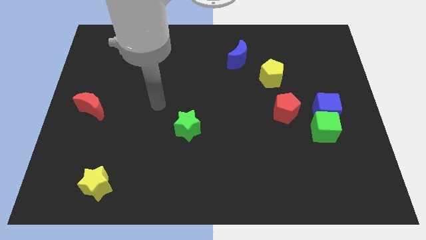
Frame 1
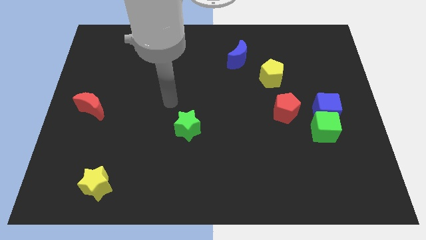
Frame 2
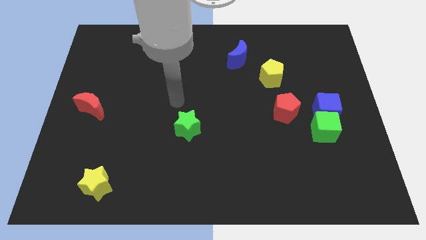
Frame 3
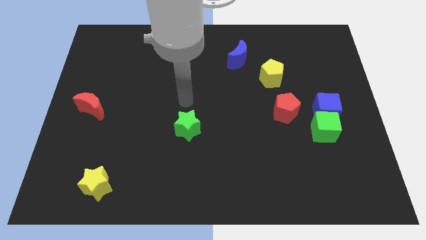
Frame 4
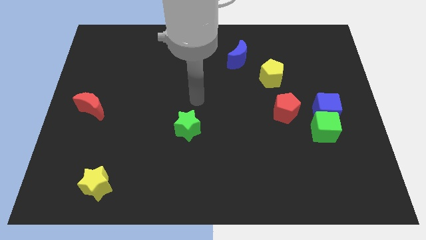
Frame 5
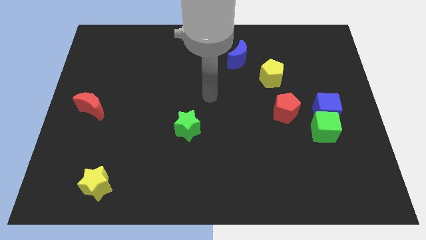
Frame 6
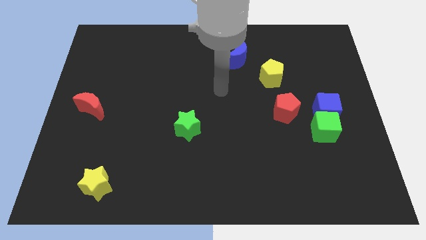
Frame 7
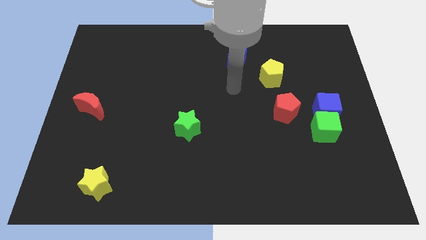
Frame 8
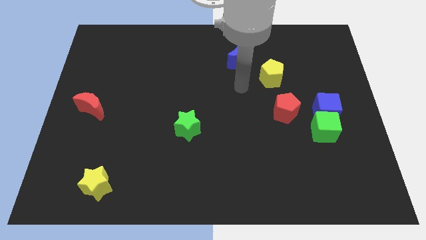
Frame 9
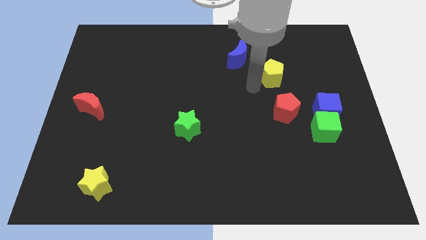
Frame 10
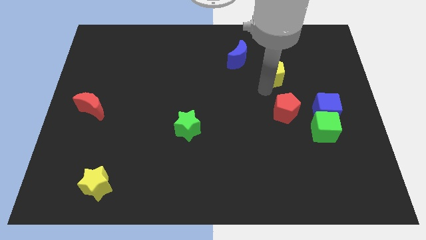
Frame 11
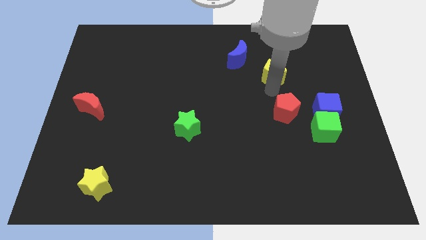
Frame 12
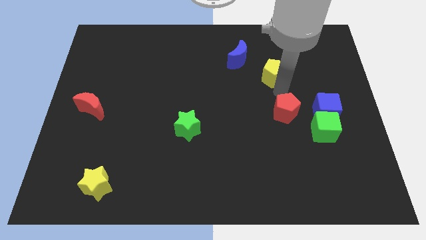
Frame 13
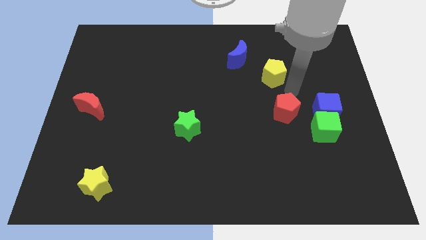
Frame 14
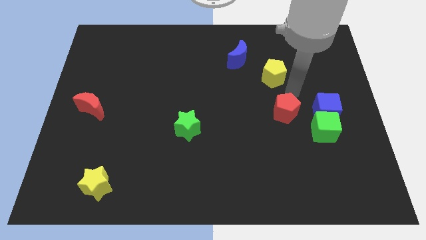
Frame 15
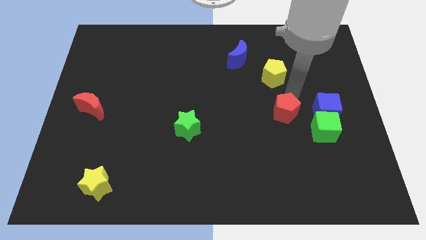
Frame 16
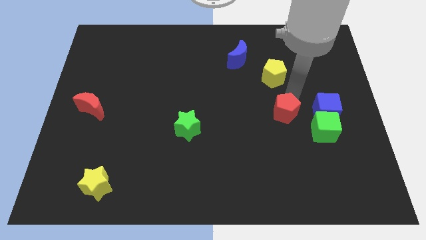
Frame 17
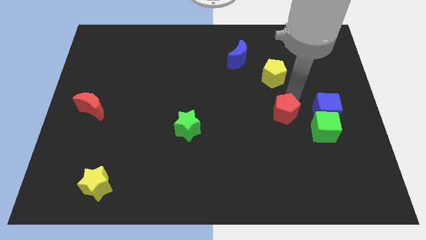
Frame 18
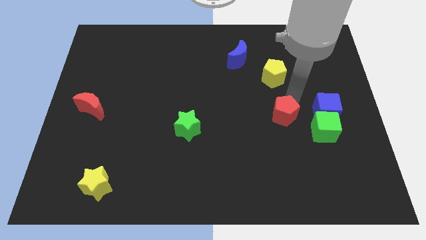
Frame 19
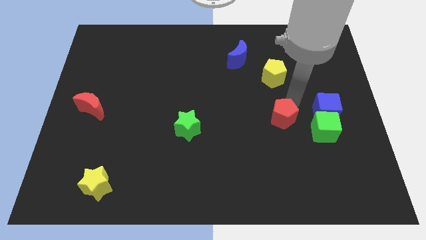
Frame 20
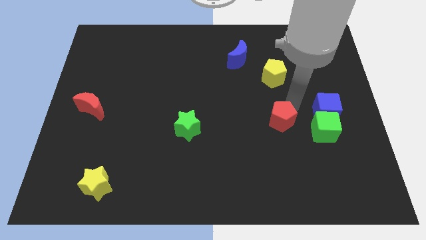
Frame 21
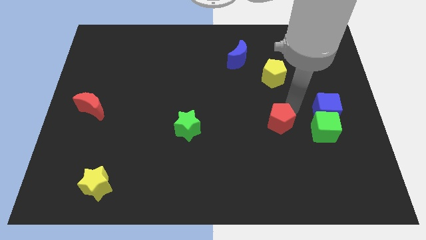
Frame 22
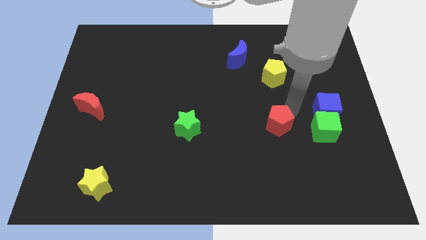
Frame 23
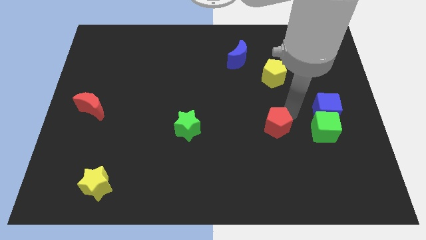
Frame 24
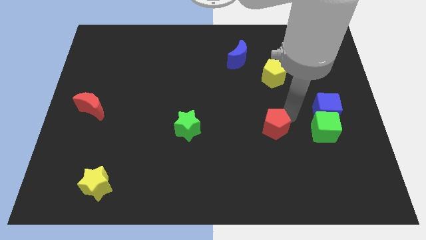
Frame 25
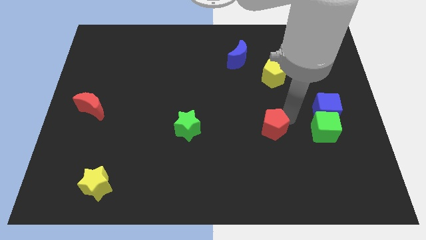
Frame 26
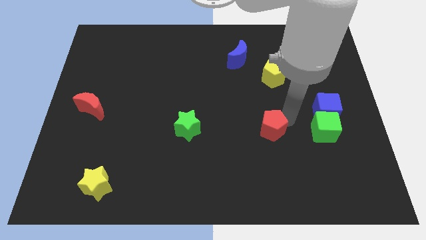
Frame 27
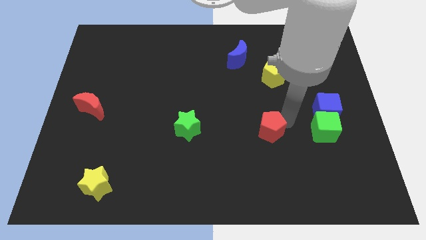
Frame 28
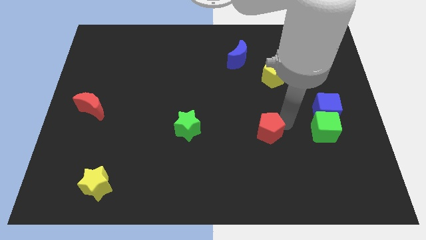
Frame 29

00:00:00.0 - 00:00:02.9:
push the red pentagon a bit downwards and then to the left

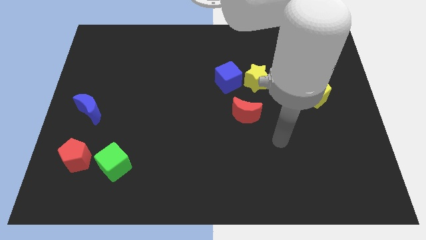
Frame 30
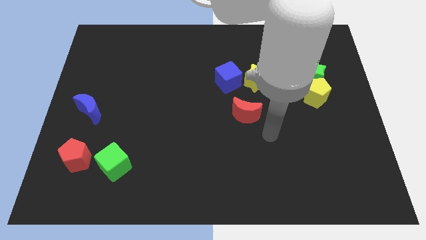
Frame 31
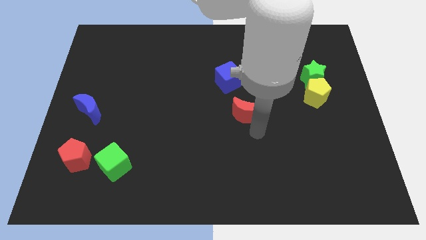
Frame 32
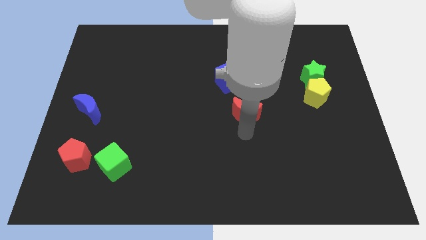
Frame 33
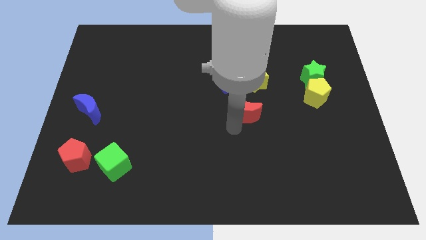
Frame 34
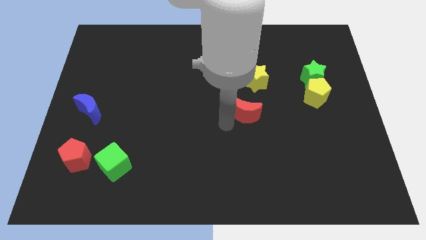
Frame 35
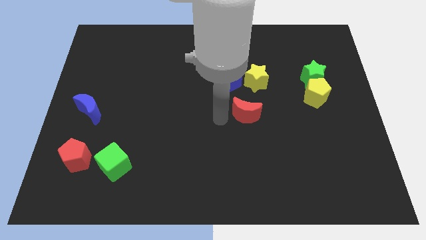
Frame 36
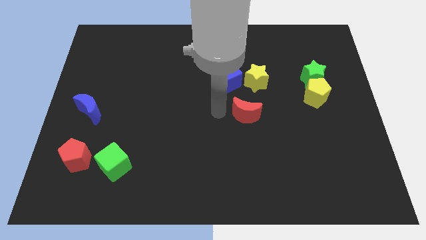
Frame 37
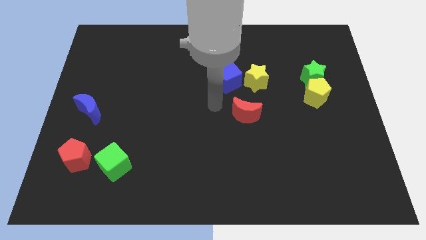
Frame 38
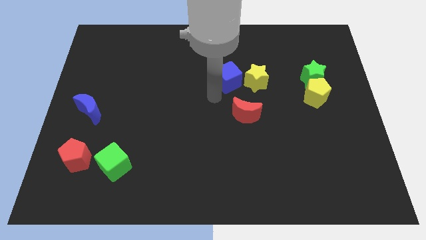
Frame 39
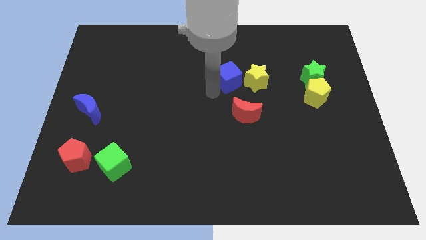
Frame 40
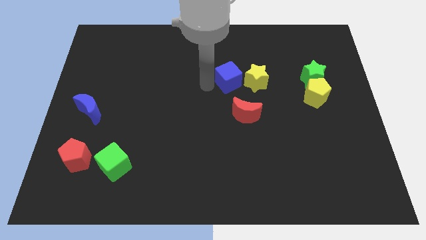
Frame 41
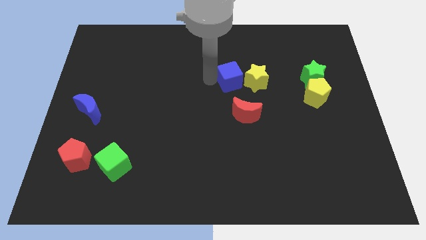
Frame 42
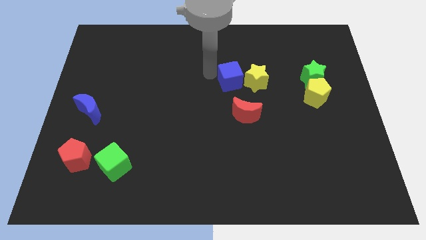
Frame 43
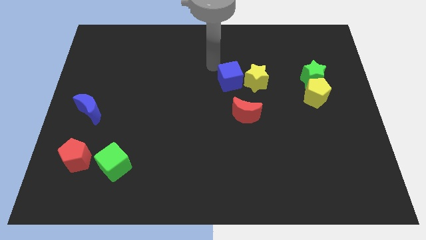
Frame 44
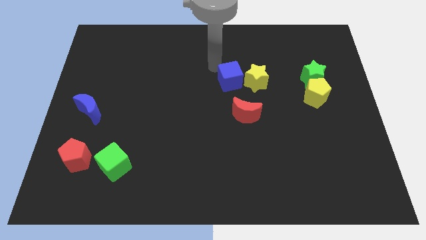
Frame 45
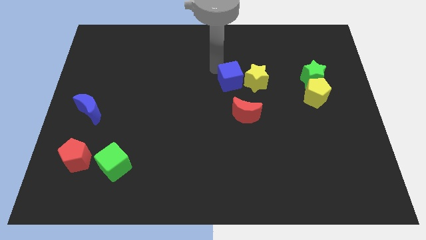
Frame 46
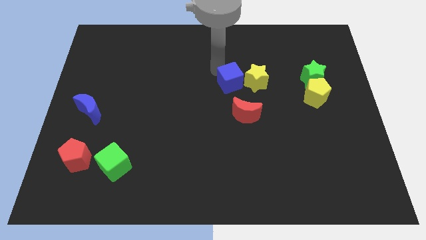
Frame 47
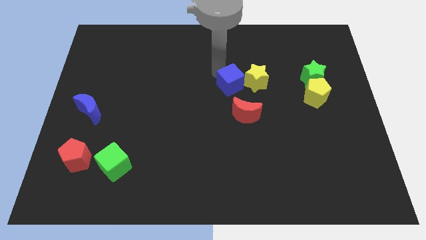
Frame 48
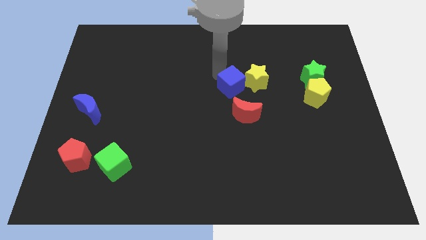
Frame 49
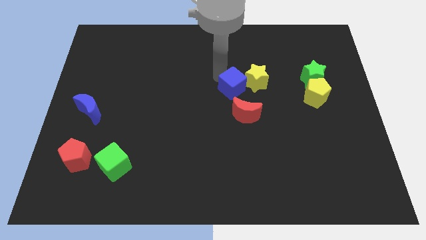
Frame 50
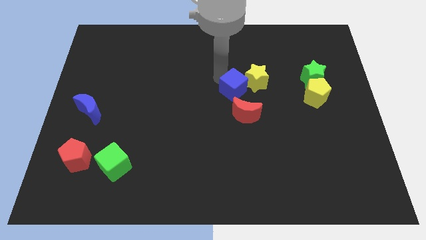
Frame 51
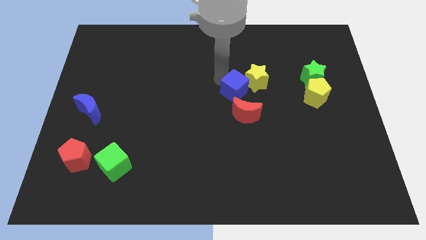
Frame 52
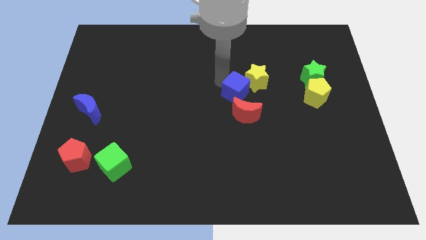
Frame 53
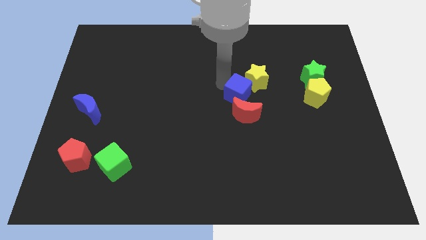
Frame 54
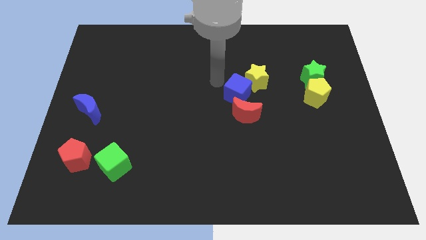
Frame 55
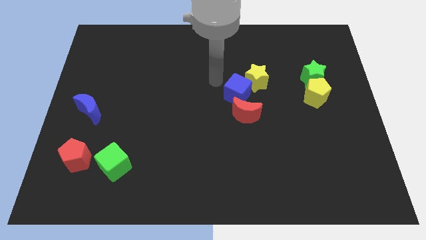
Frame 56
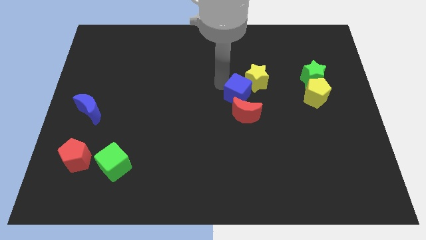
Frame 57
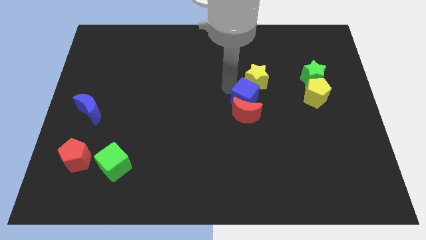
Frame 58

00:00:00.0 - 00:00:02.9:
slide the blue cube down and to the right somewhat

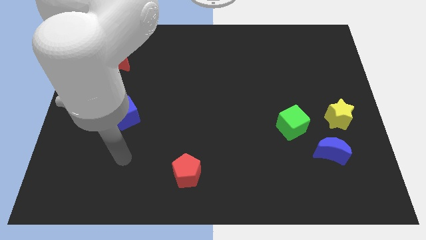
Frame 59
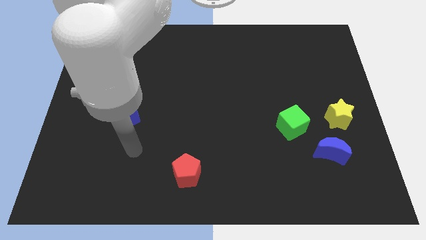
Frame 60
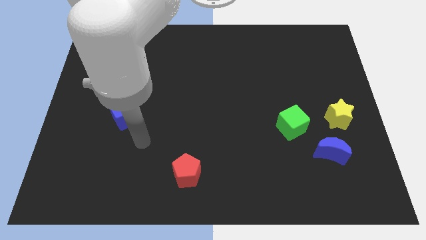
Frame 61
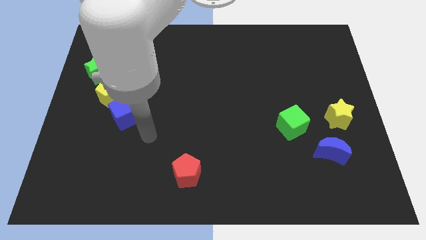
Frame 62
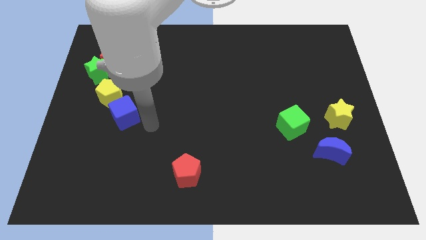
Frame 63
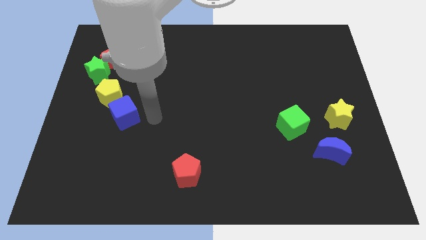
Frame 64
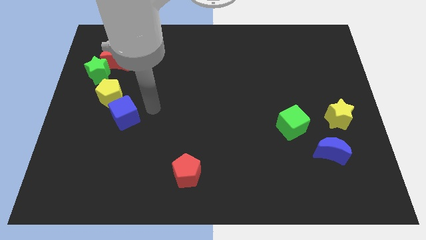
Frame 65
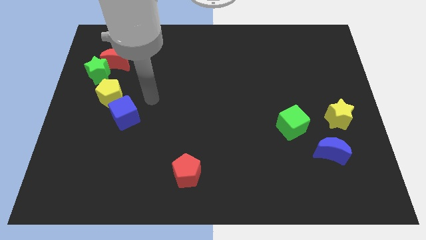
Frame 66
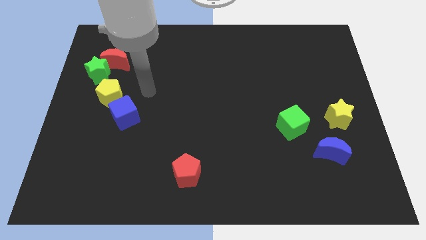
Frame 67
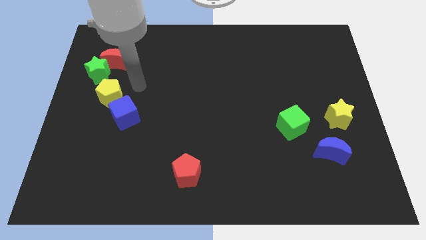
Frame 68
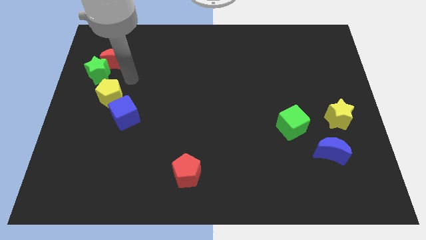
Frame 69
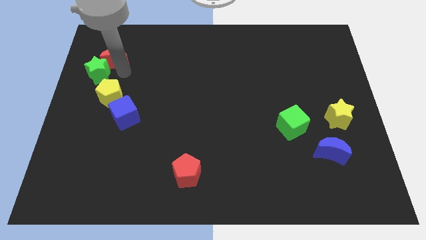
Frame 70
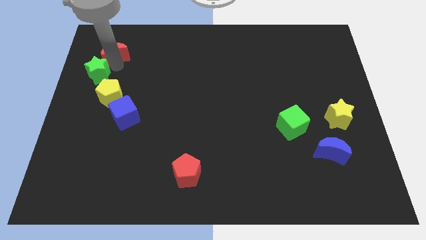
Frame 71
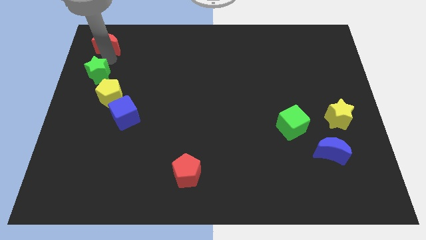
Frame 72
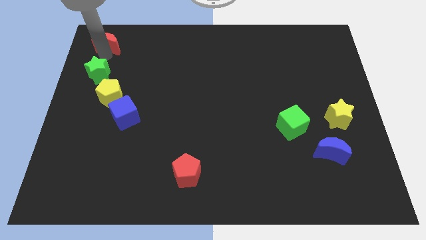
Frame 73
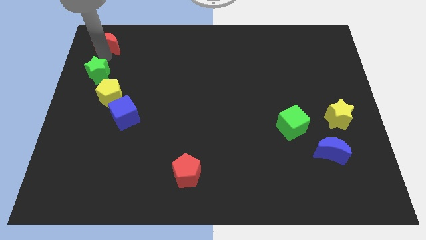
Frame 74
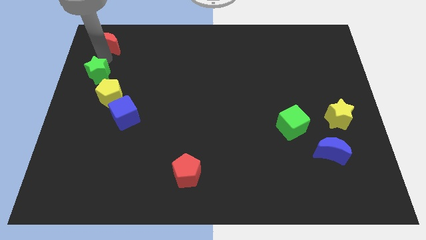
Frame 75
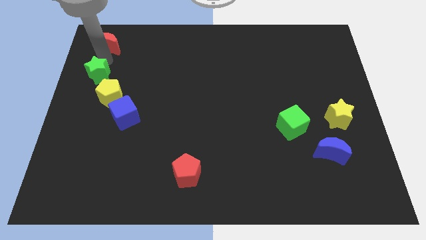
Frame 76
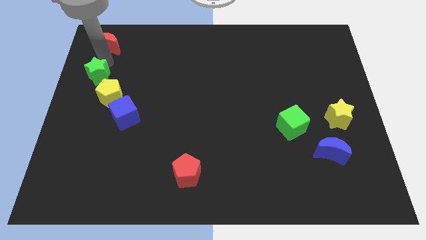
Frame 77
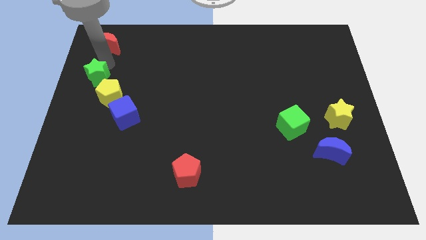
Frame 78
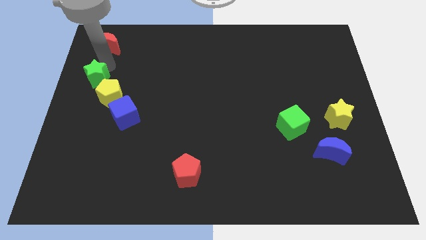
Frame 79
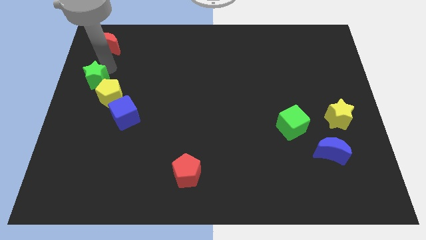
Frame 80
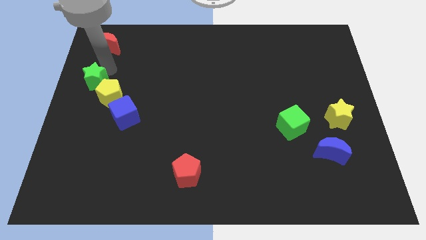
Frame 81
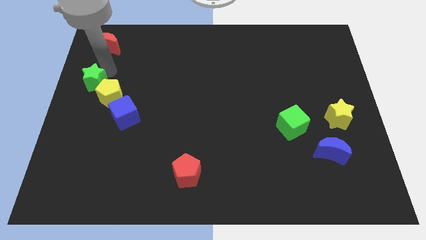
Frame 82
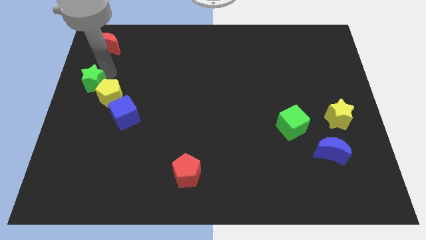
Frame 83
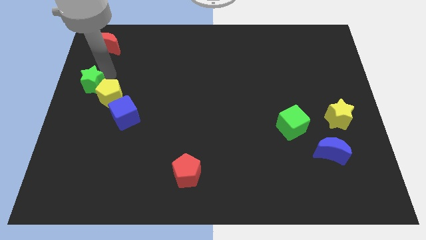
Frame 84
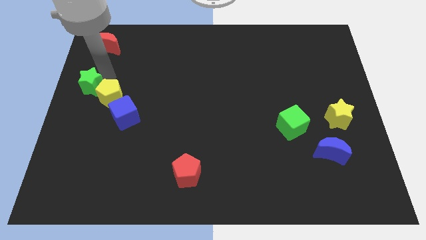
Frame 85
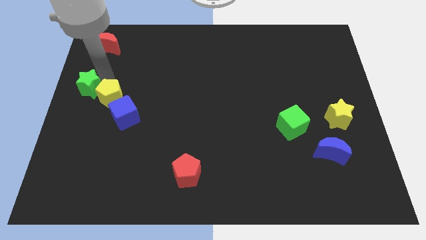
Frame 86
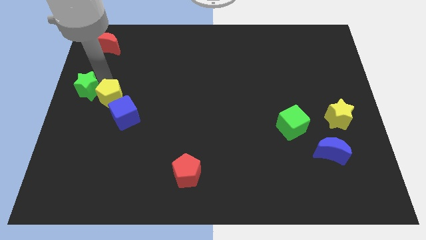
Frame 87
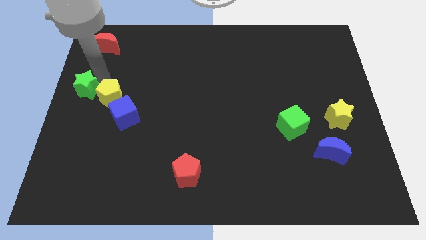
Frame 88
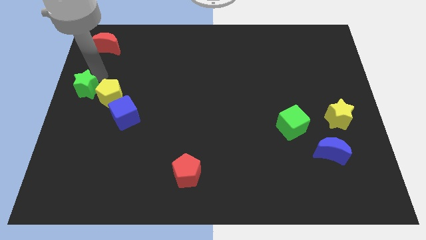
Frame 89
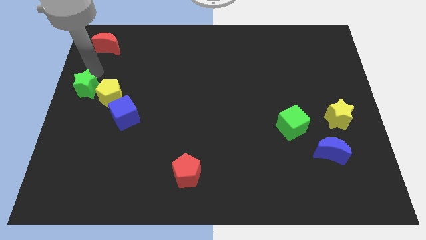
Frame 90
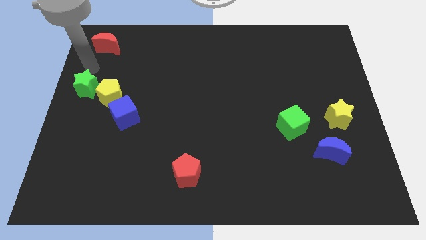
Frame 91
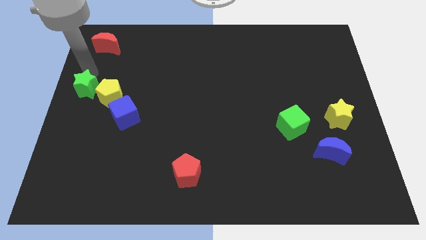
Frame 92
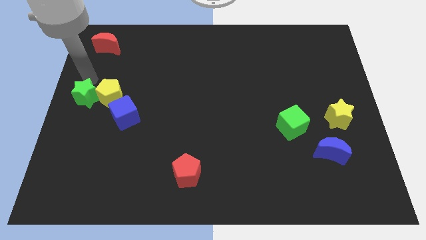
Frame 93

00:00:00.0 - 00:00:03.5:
slide the green star down a little
